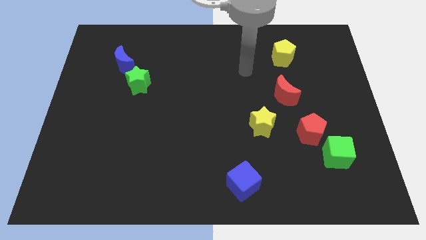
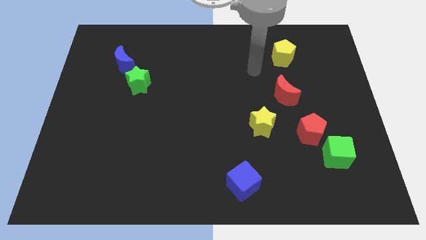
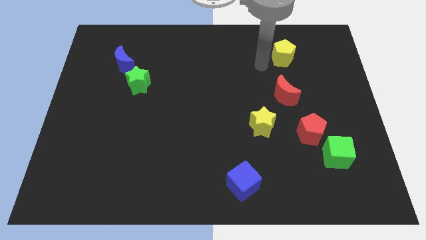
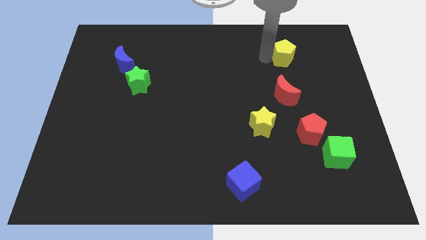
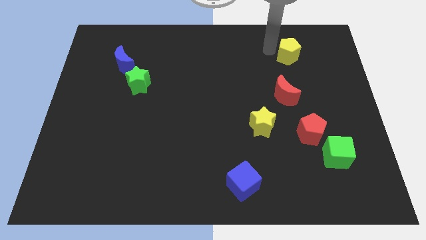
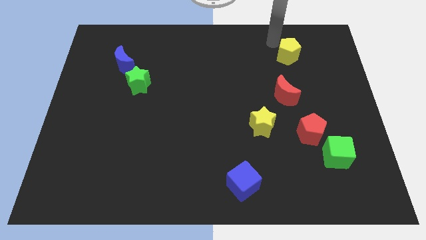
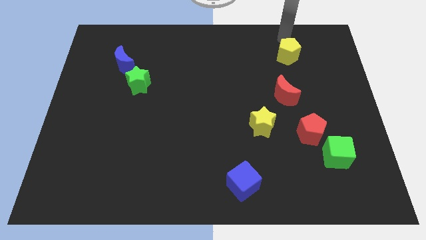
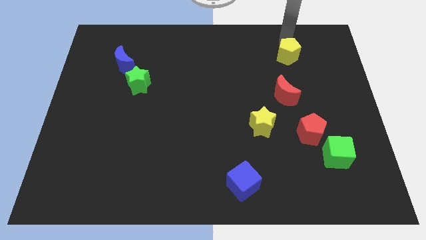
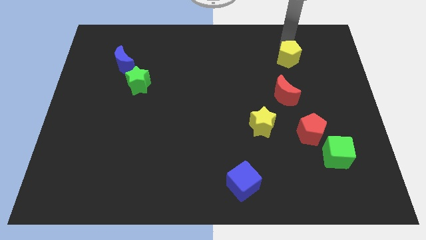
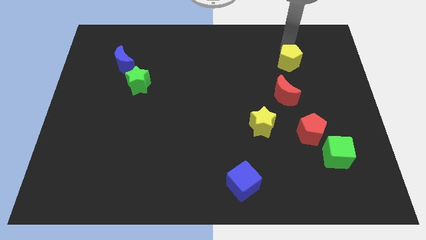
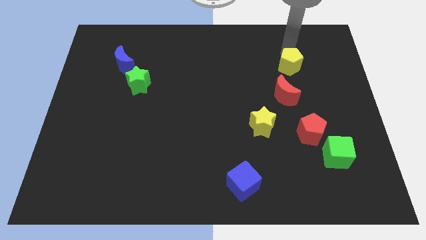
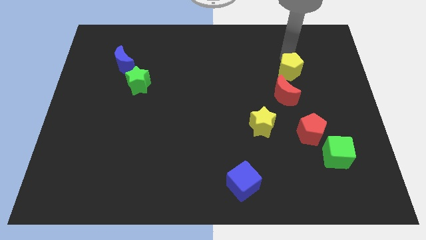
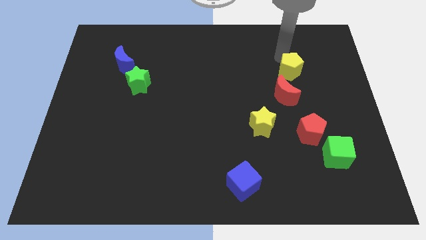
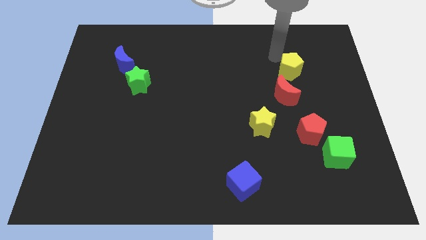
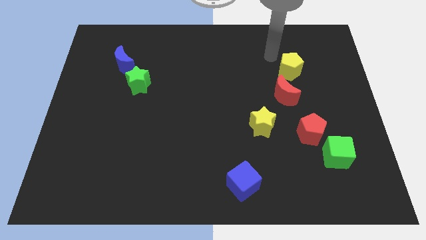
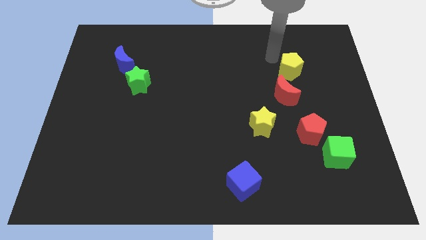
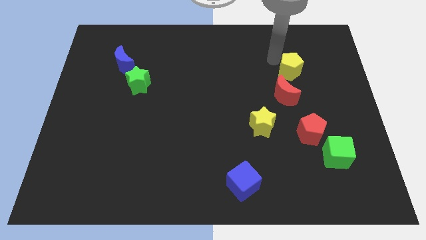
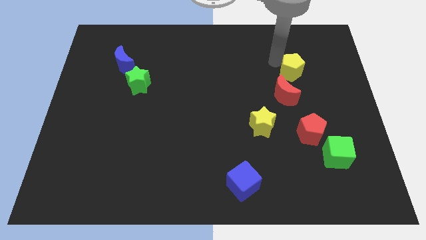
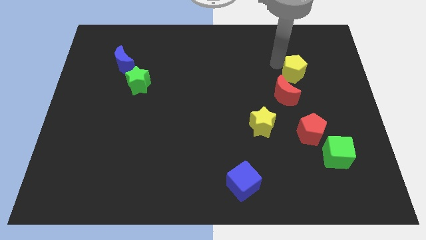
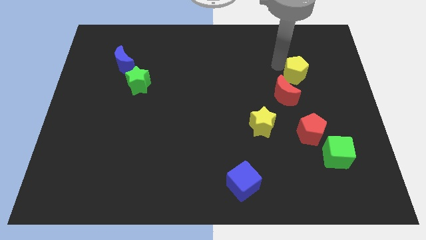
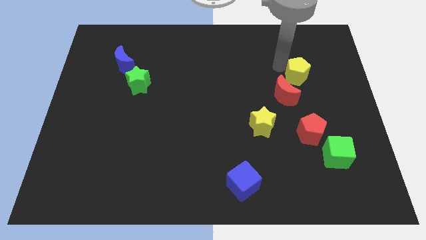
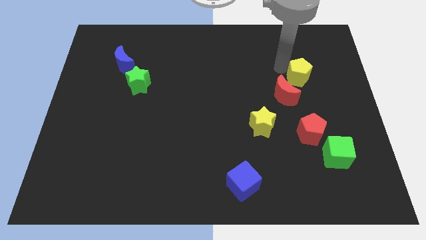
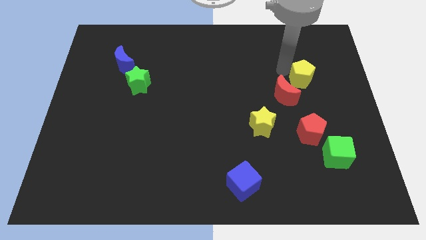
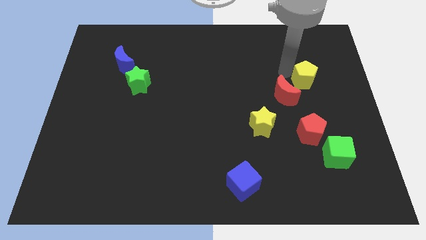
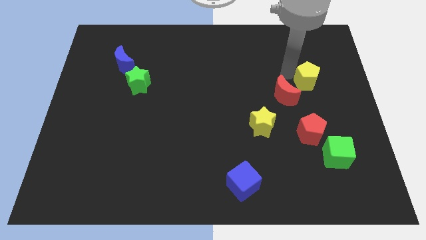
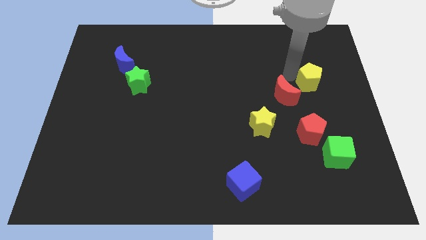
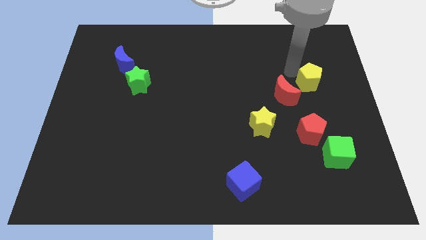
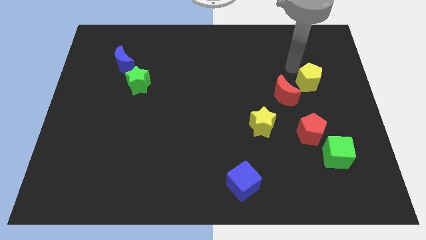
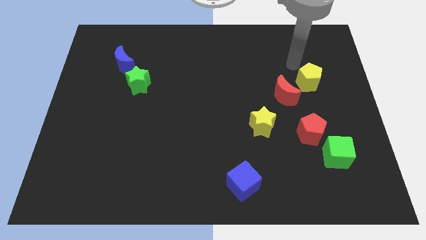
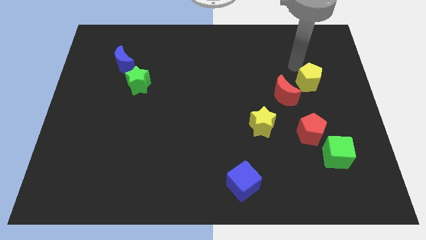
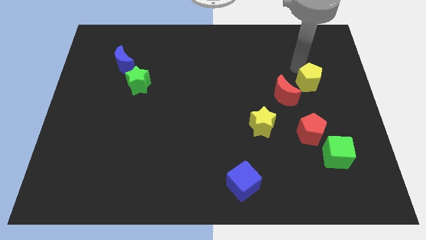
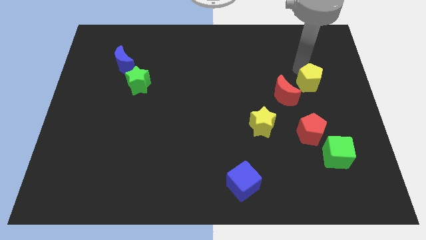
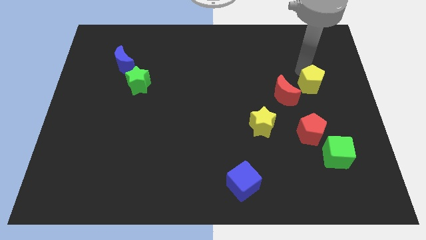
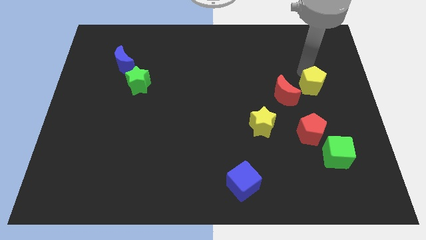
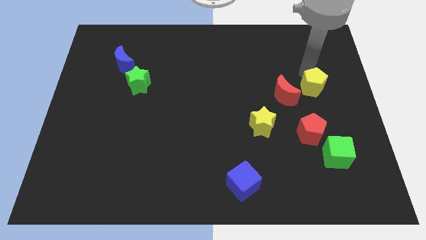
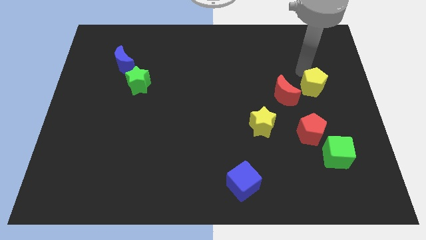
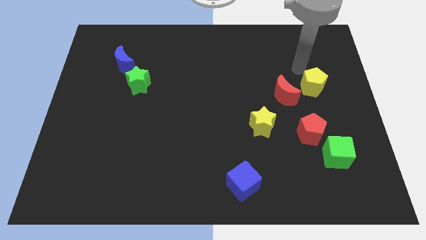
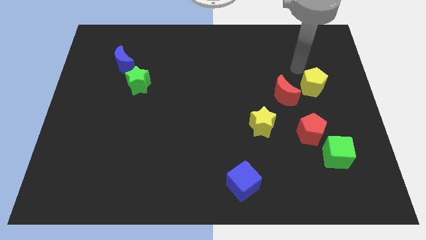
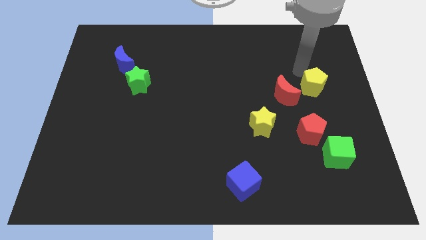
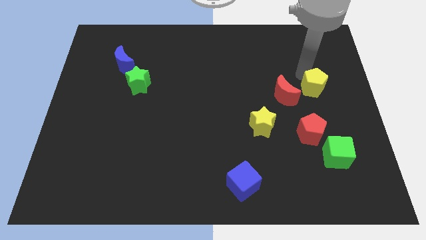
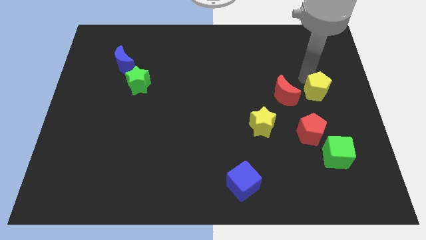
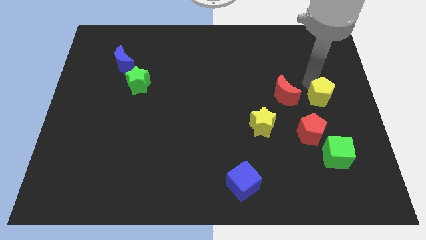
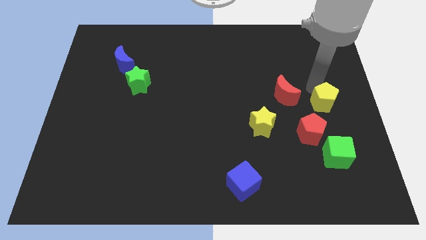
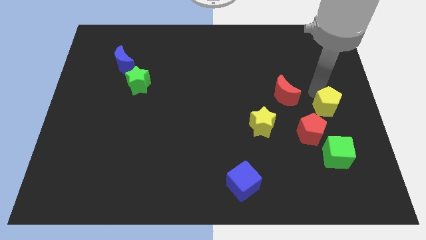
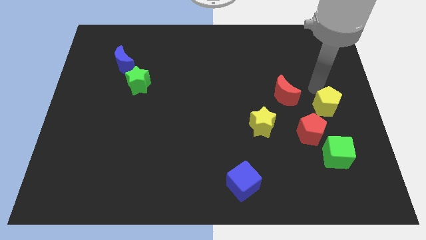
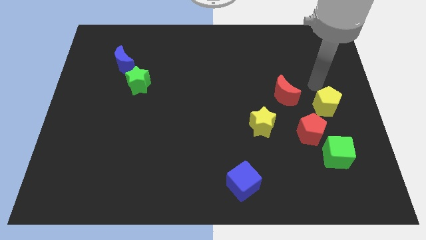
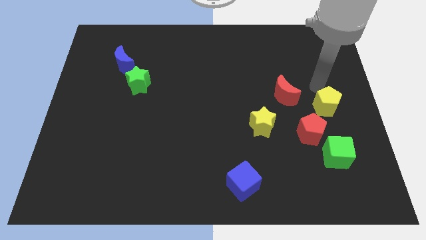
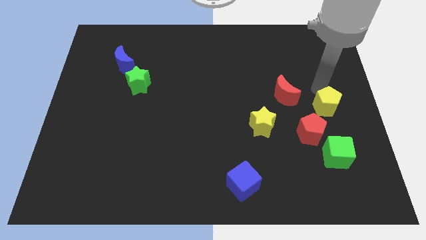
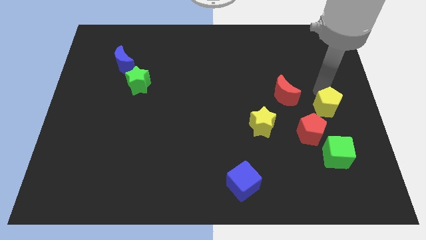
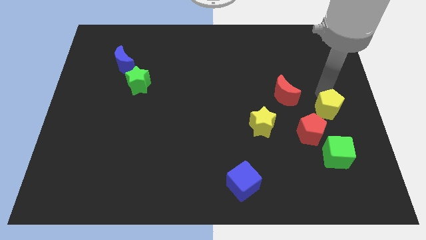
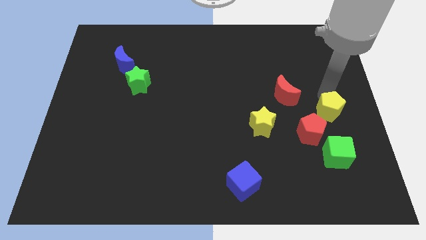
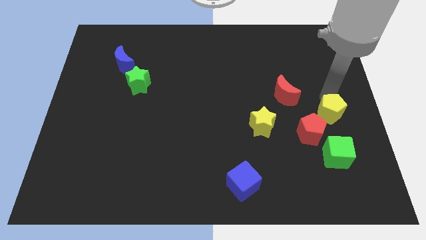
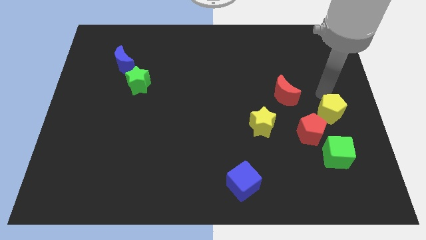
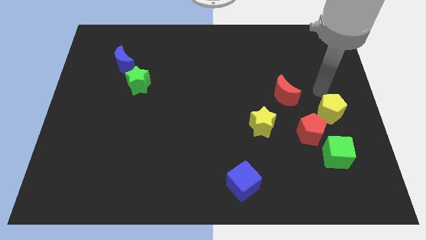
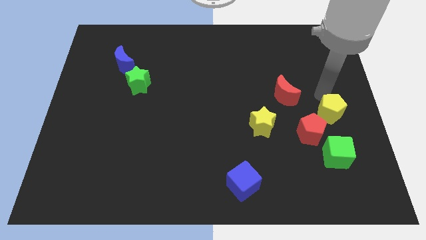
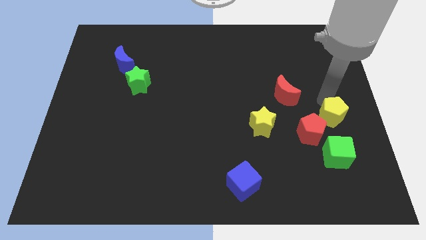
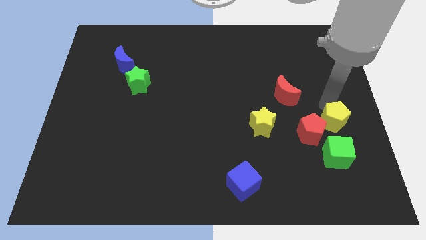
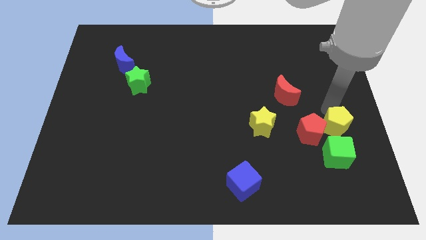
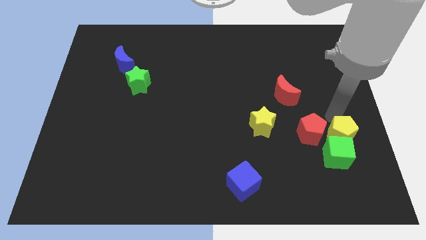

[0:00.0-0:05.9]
move the yellow pentagon next to the green cube
